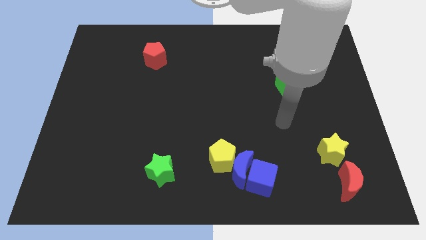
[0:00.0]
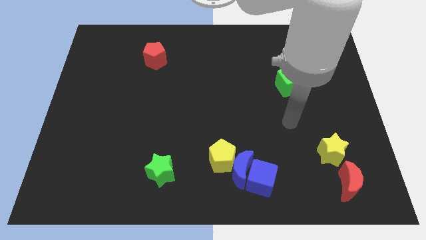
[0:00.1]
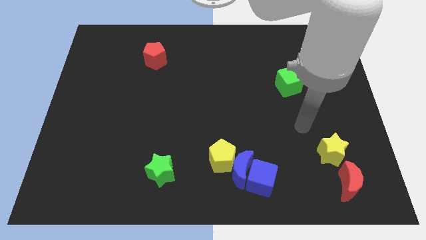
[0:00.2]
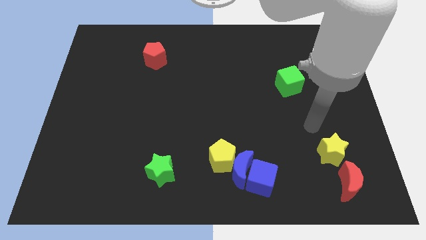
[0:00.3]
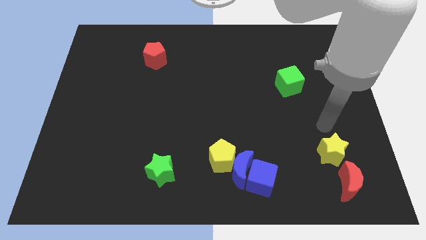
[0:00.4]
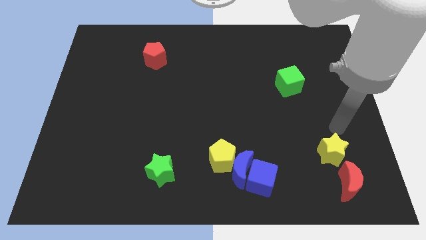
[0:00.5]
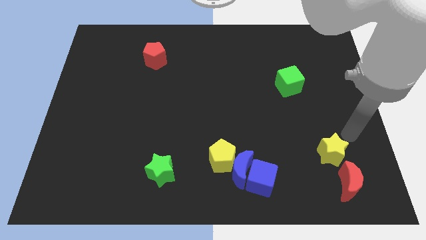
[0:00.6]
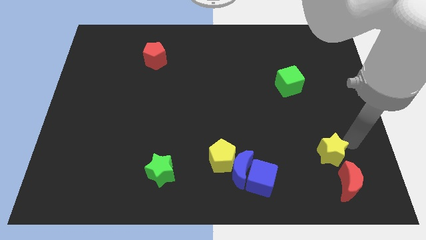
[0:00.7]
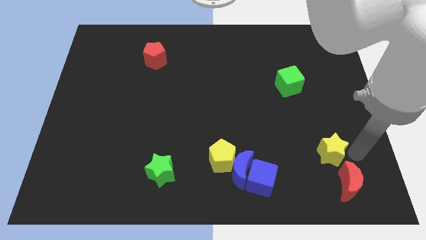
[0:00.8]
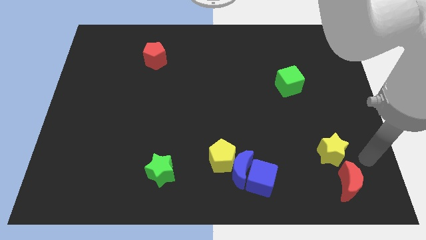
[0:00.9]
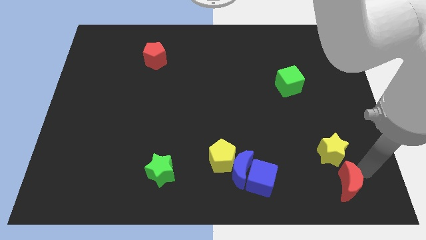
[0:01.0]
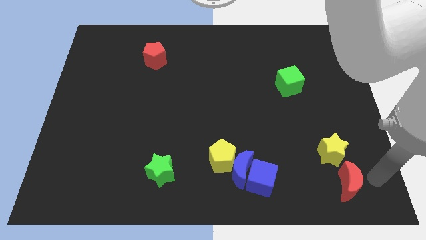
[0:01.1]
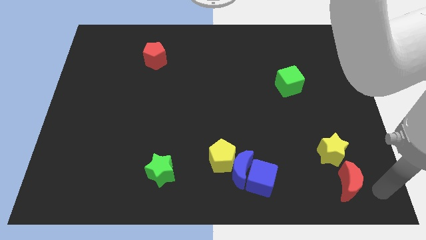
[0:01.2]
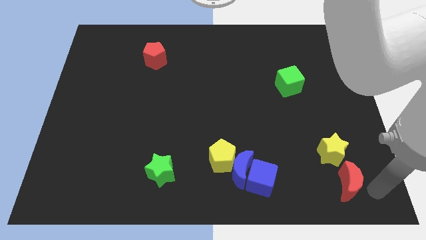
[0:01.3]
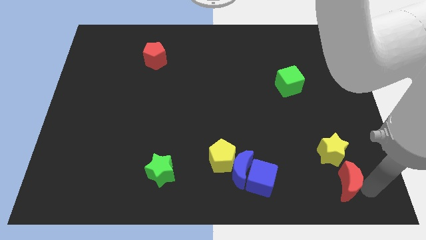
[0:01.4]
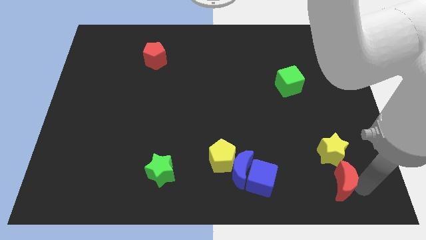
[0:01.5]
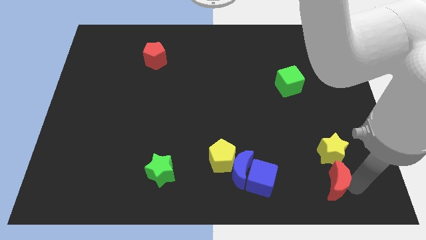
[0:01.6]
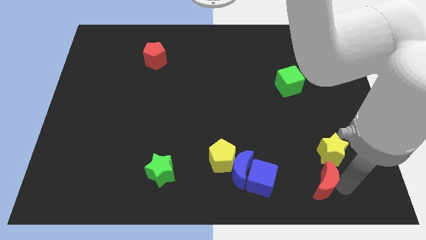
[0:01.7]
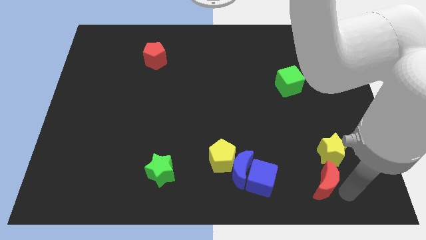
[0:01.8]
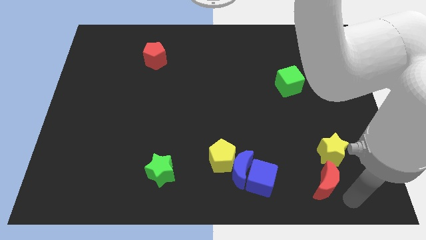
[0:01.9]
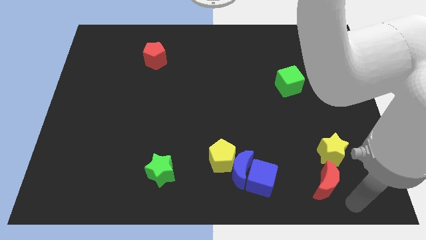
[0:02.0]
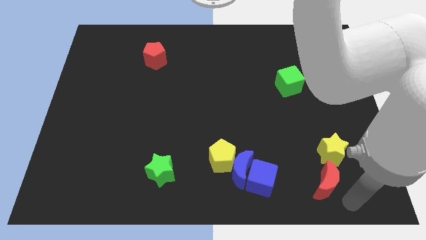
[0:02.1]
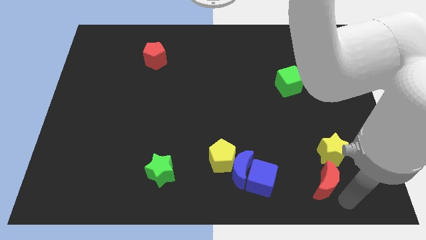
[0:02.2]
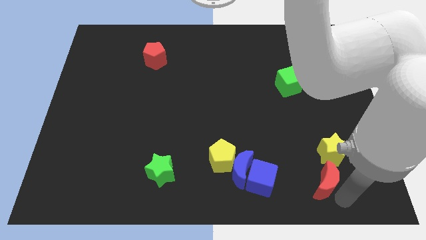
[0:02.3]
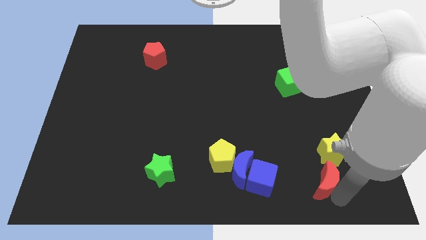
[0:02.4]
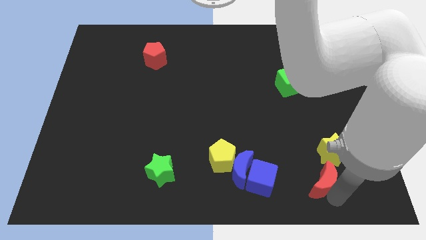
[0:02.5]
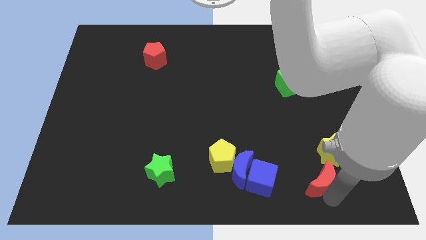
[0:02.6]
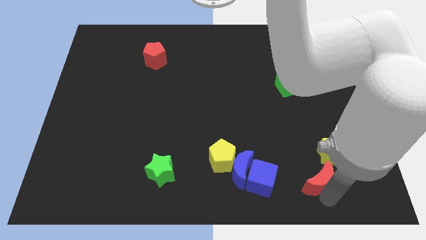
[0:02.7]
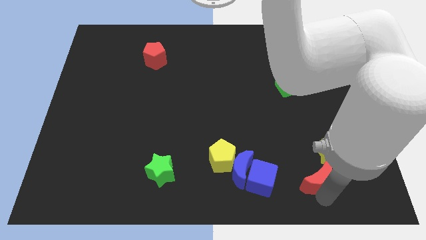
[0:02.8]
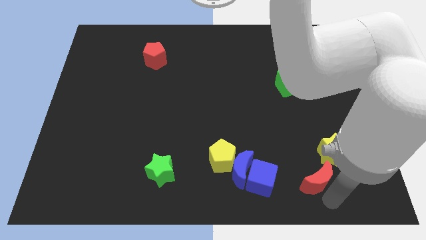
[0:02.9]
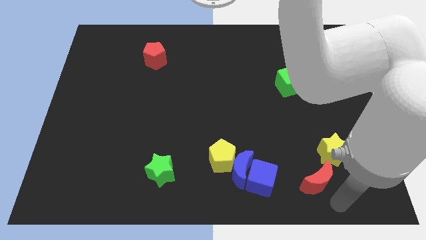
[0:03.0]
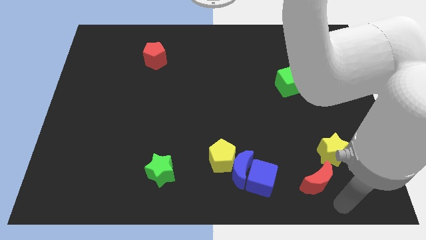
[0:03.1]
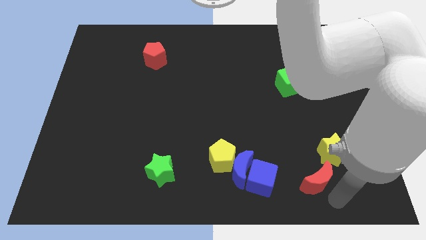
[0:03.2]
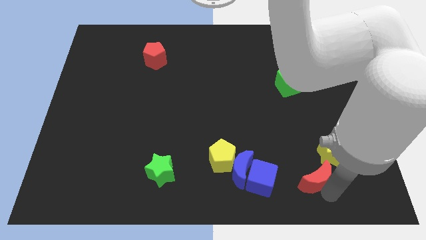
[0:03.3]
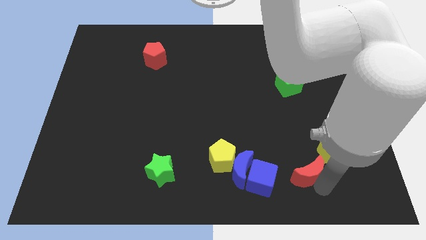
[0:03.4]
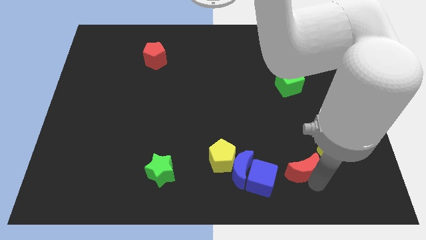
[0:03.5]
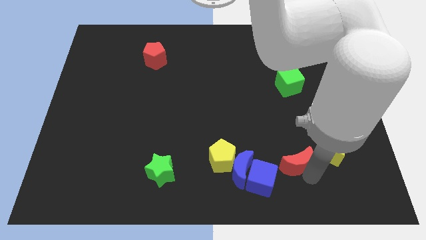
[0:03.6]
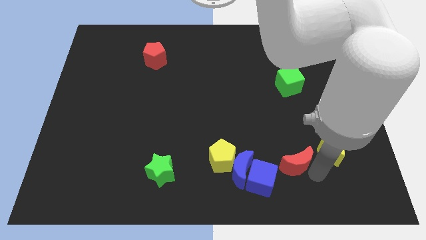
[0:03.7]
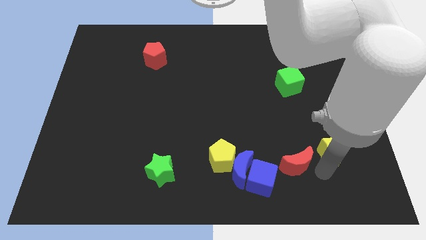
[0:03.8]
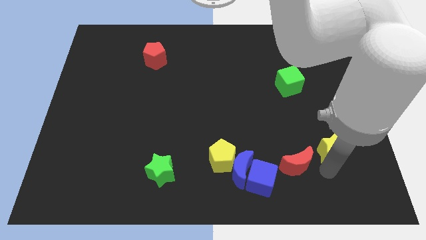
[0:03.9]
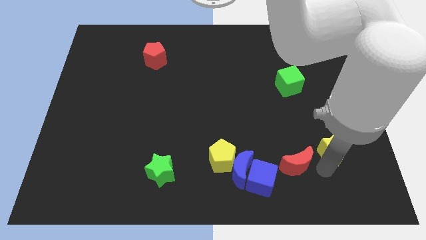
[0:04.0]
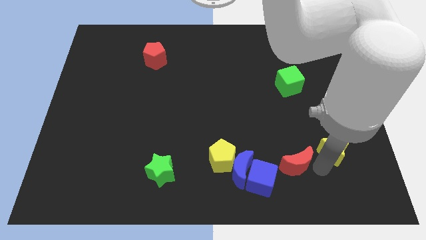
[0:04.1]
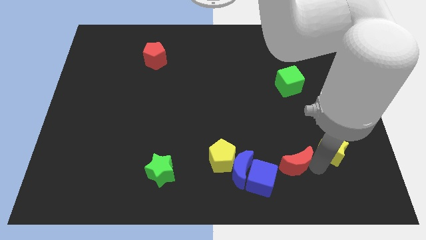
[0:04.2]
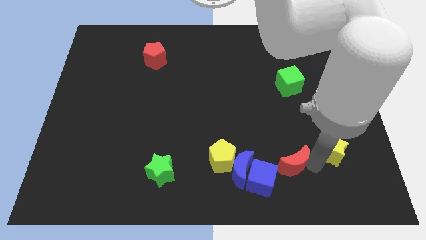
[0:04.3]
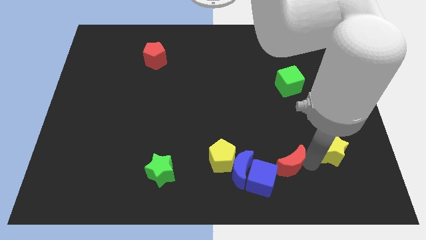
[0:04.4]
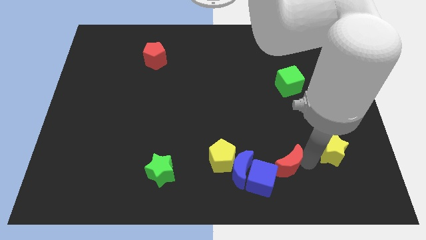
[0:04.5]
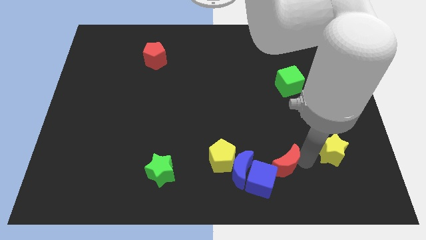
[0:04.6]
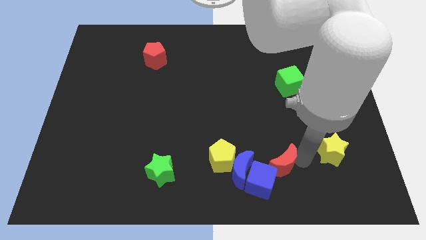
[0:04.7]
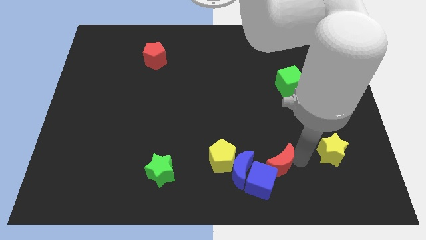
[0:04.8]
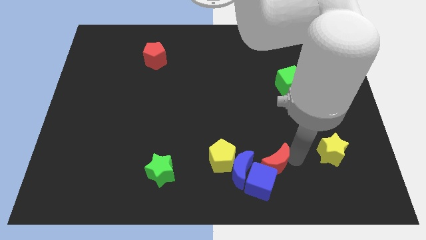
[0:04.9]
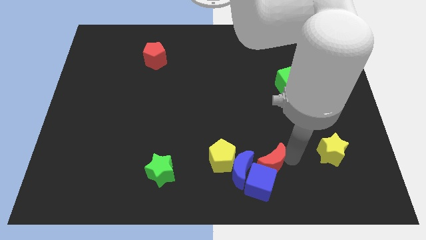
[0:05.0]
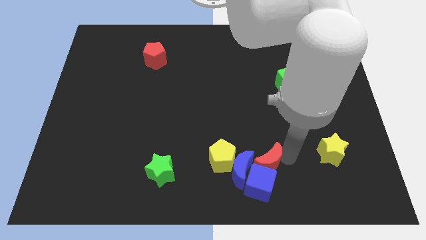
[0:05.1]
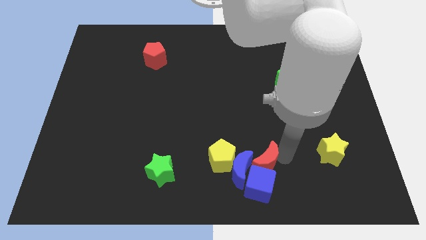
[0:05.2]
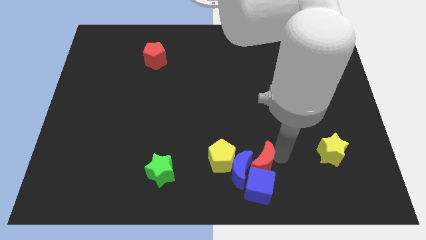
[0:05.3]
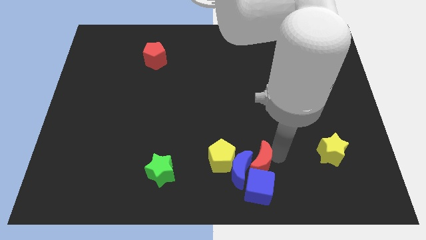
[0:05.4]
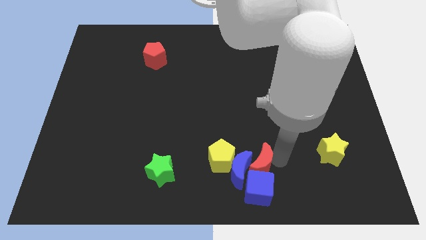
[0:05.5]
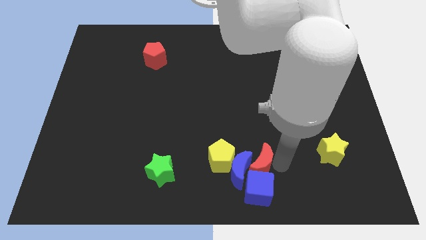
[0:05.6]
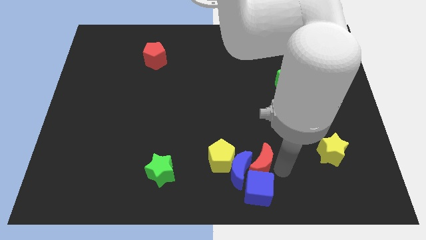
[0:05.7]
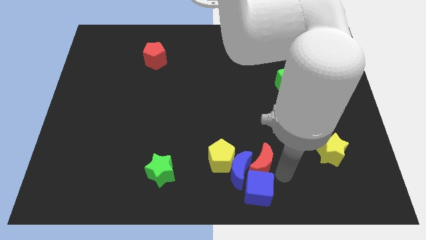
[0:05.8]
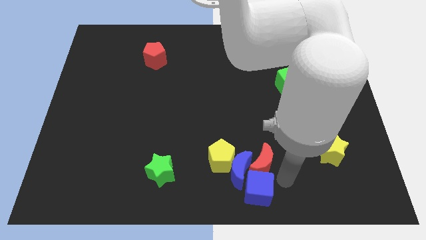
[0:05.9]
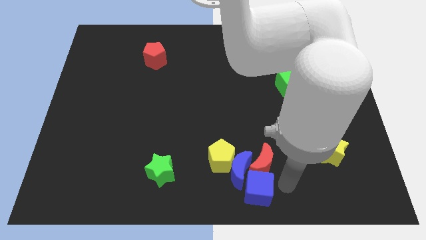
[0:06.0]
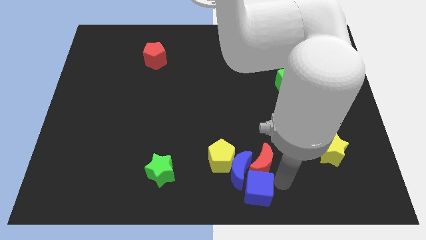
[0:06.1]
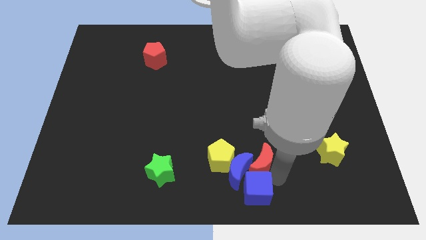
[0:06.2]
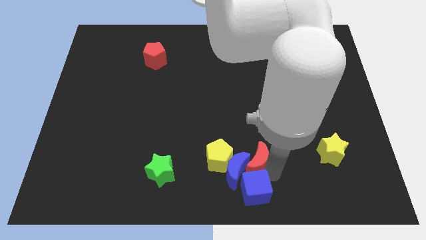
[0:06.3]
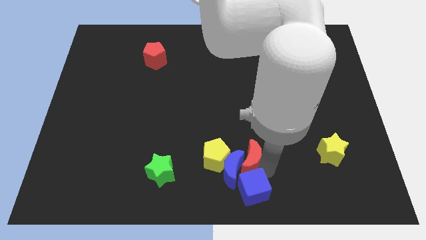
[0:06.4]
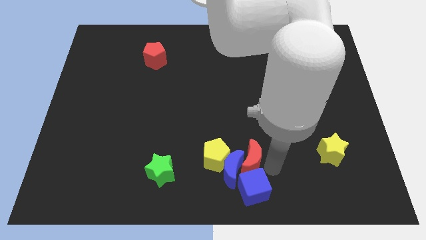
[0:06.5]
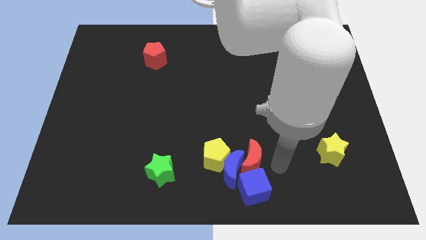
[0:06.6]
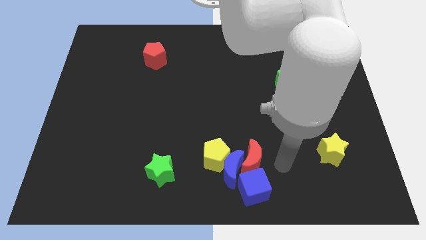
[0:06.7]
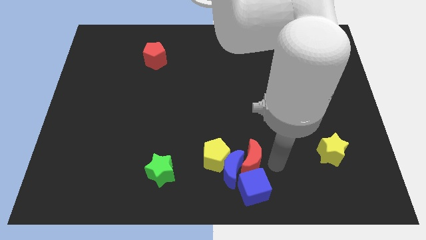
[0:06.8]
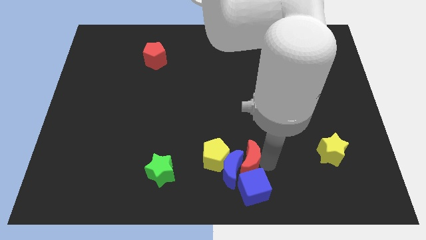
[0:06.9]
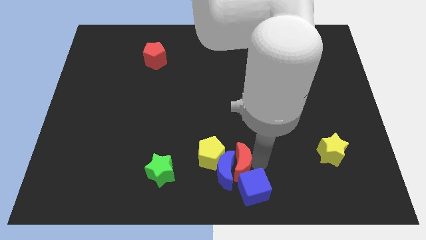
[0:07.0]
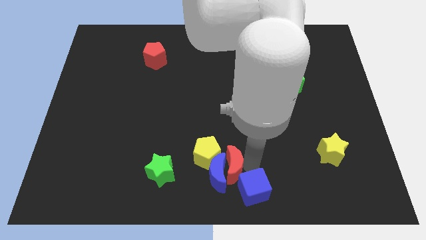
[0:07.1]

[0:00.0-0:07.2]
put the red moon towards the yellow pentagon
